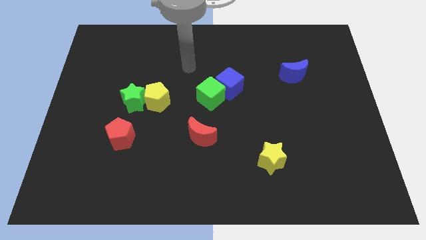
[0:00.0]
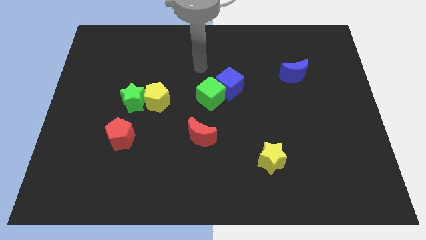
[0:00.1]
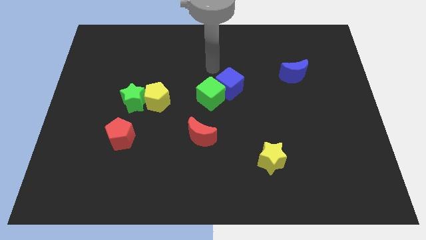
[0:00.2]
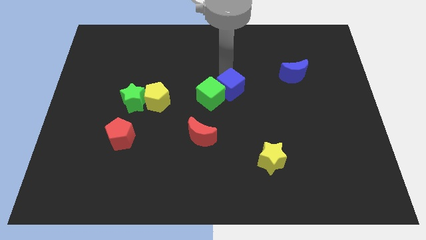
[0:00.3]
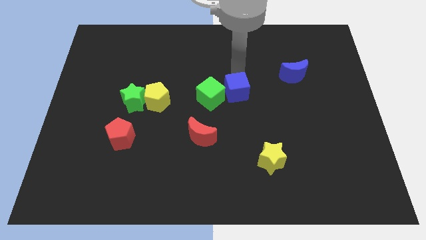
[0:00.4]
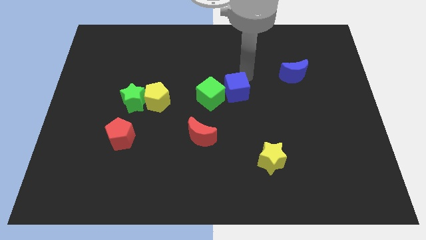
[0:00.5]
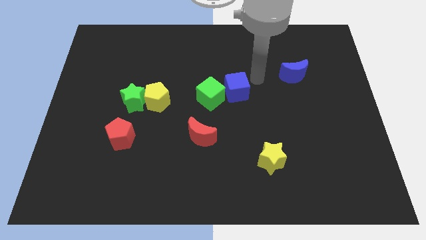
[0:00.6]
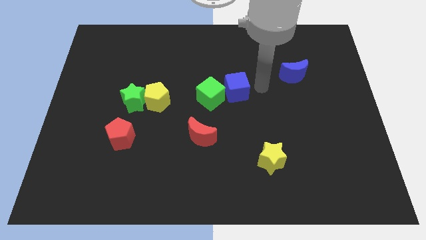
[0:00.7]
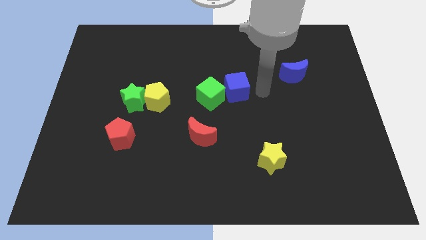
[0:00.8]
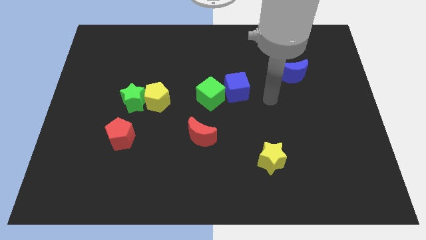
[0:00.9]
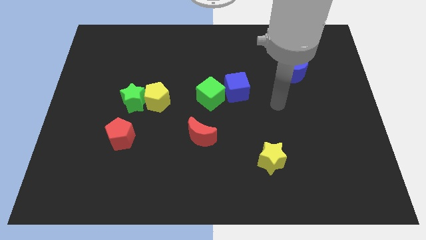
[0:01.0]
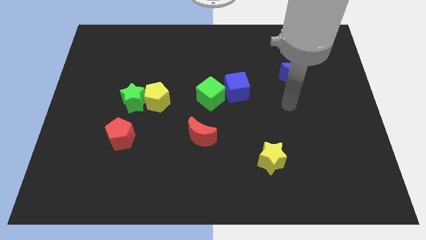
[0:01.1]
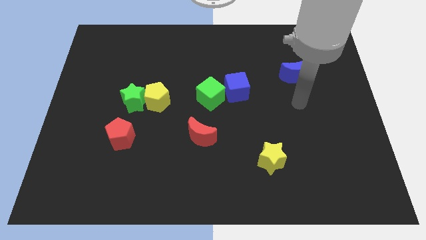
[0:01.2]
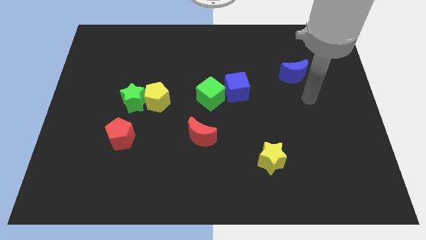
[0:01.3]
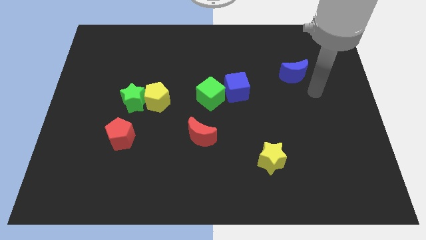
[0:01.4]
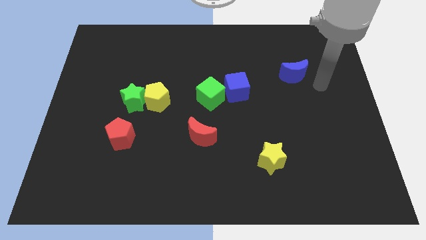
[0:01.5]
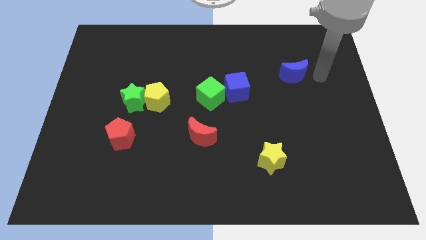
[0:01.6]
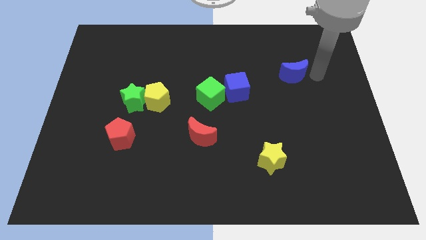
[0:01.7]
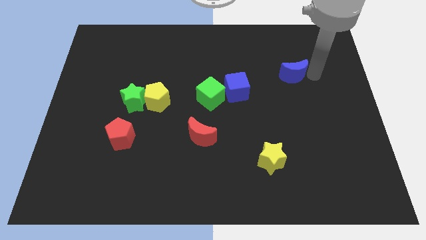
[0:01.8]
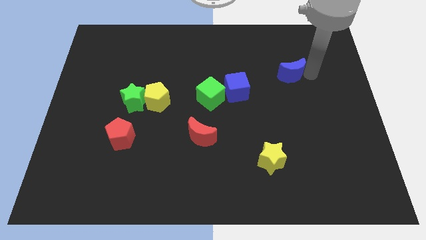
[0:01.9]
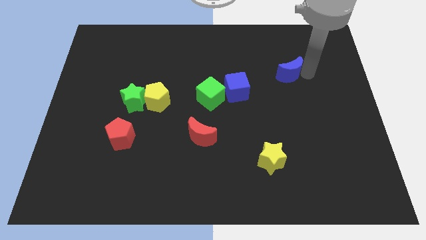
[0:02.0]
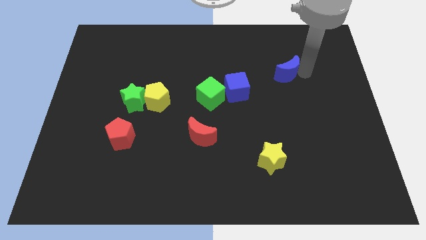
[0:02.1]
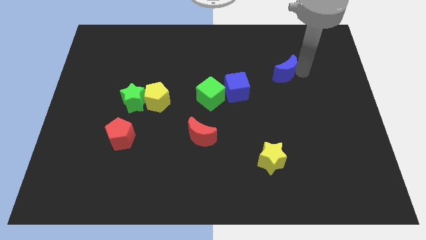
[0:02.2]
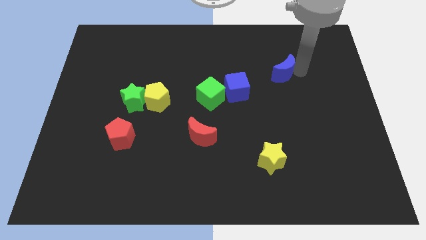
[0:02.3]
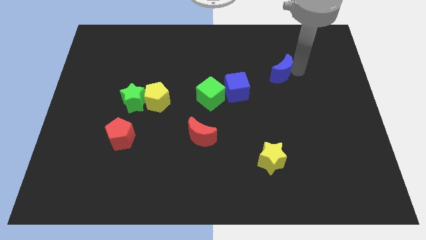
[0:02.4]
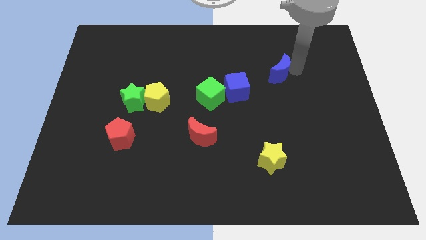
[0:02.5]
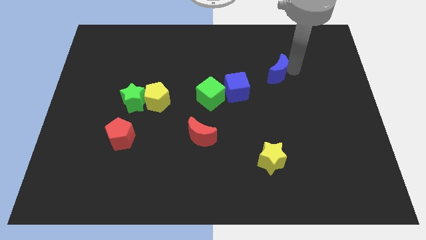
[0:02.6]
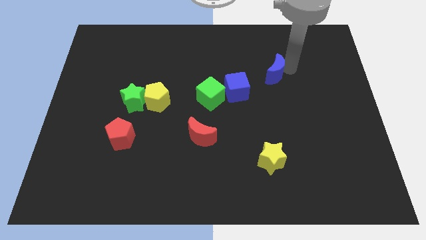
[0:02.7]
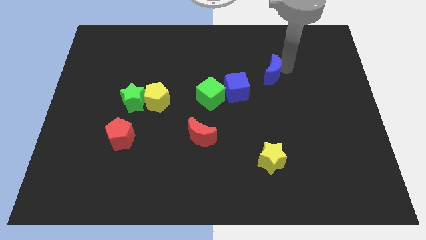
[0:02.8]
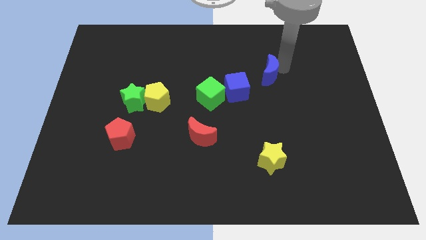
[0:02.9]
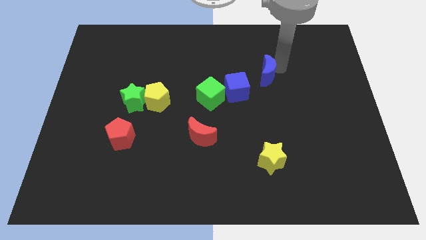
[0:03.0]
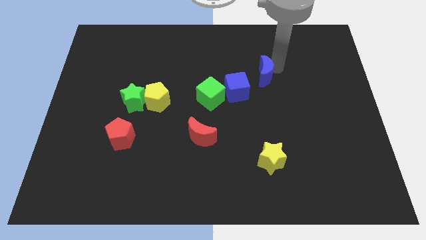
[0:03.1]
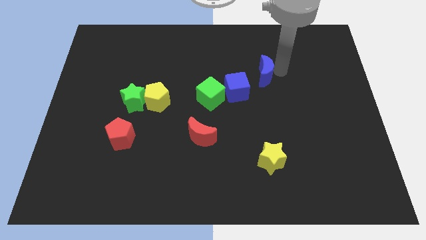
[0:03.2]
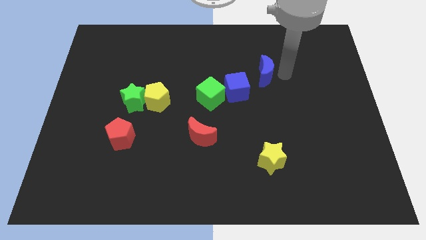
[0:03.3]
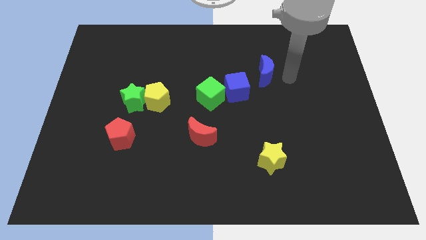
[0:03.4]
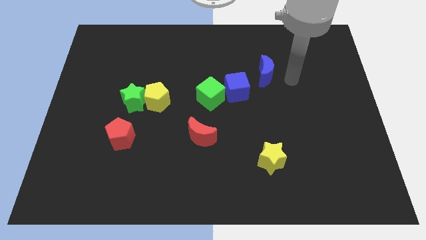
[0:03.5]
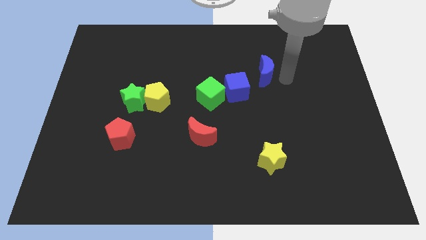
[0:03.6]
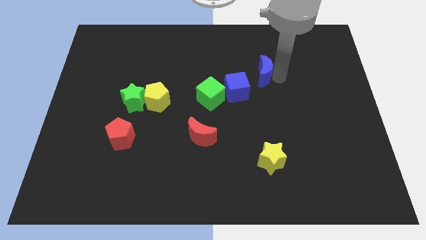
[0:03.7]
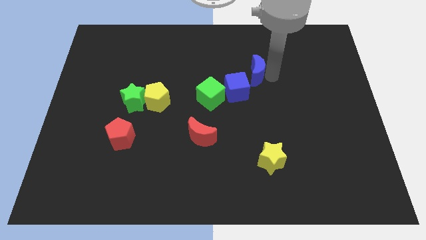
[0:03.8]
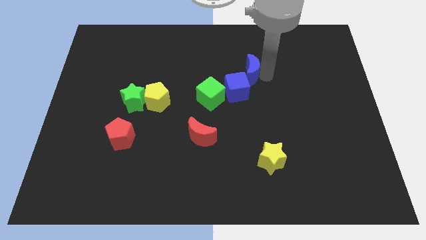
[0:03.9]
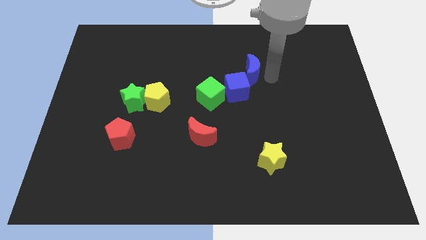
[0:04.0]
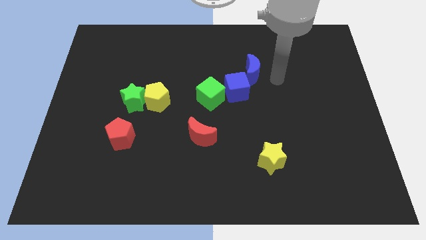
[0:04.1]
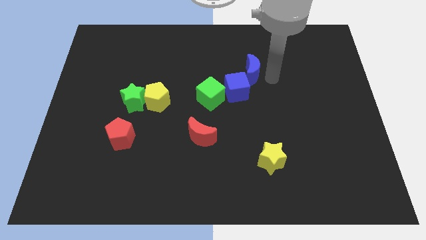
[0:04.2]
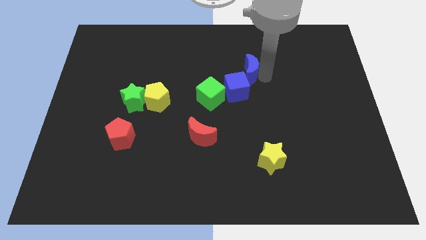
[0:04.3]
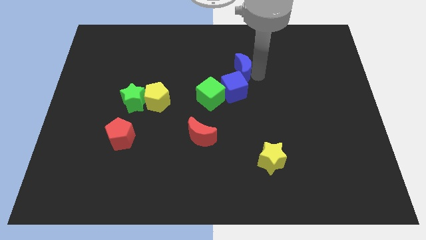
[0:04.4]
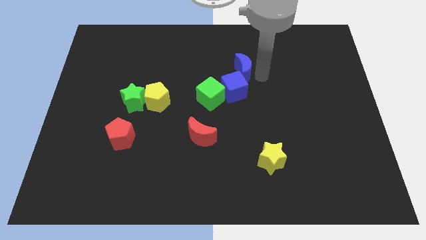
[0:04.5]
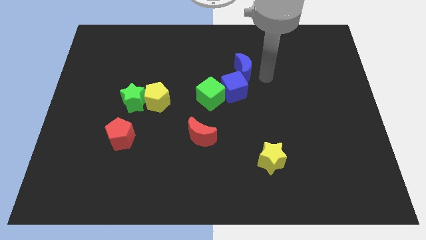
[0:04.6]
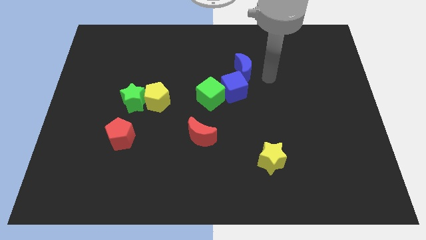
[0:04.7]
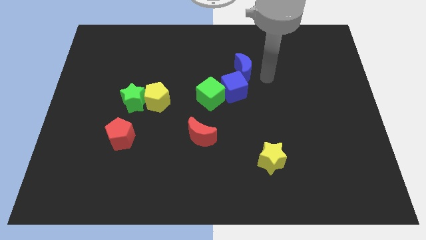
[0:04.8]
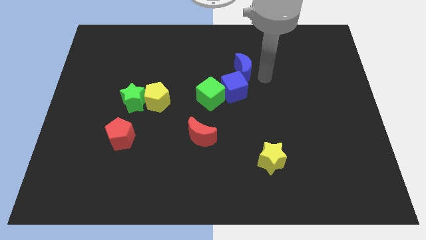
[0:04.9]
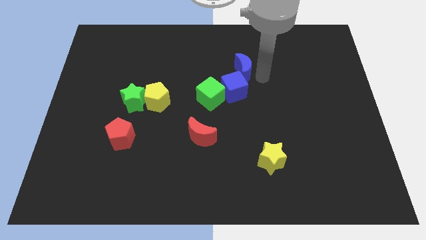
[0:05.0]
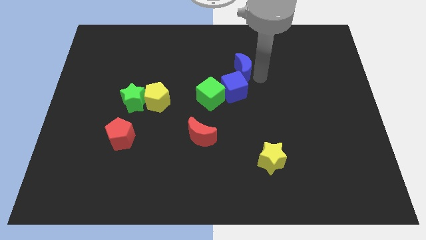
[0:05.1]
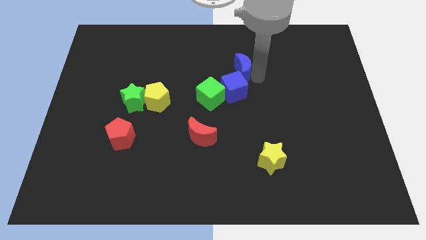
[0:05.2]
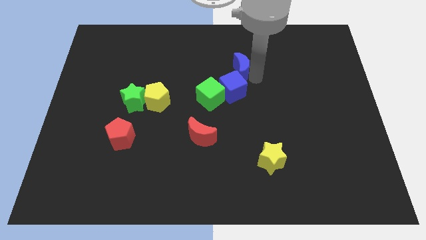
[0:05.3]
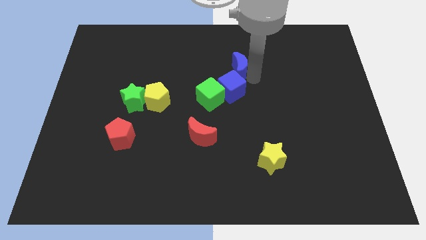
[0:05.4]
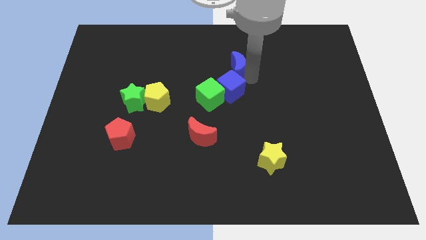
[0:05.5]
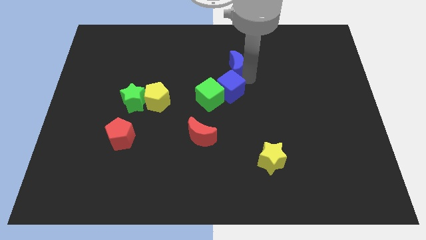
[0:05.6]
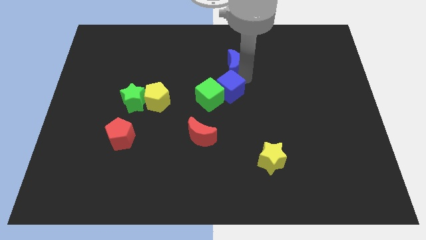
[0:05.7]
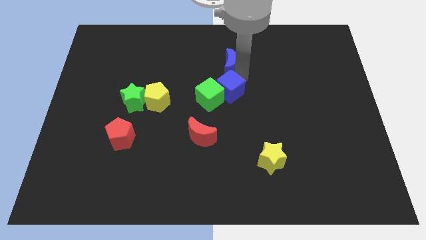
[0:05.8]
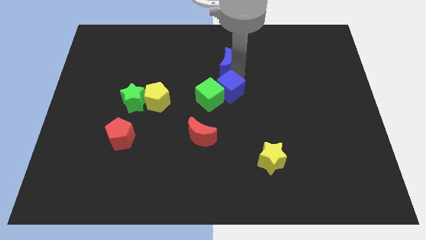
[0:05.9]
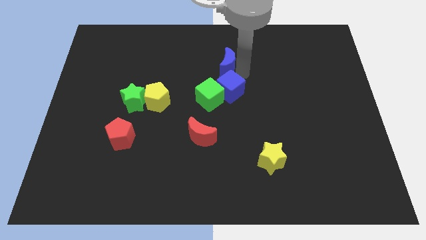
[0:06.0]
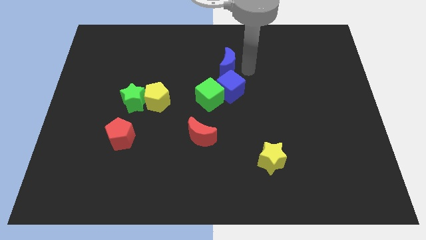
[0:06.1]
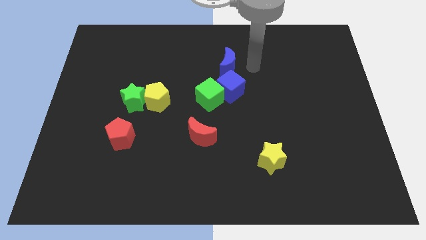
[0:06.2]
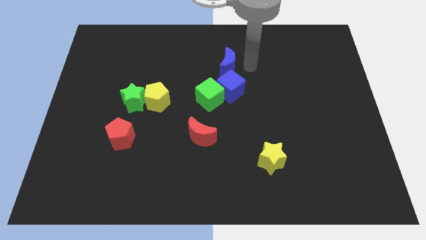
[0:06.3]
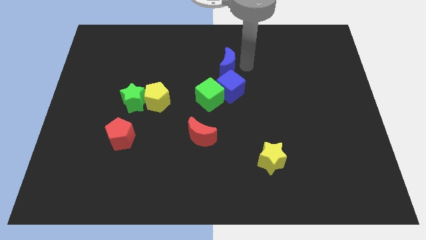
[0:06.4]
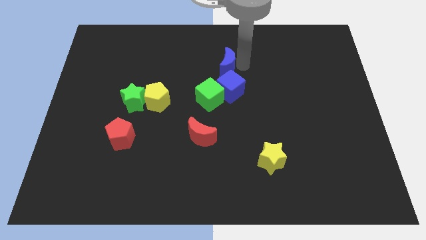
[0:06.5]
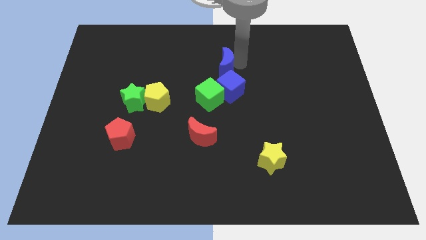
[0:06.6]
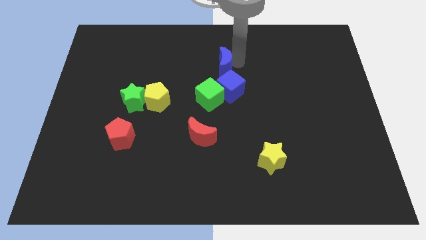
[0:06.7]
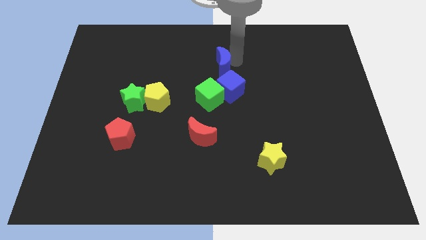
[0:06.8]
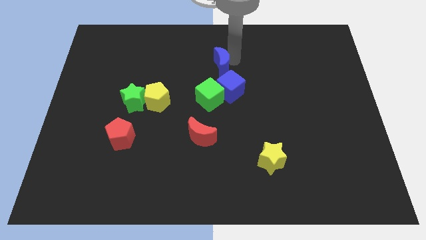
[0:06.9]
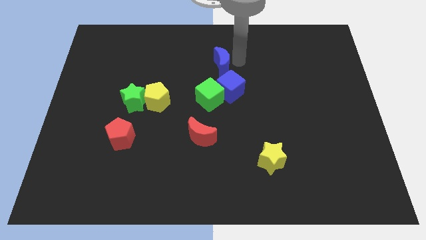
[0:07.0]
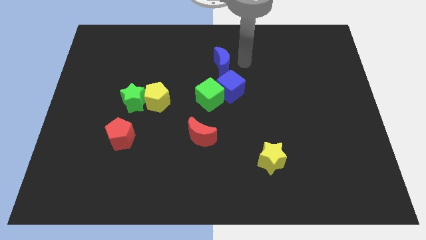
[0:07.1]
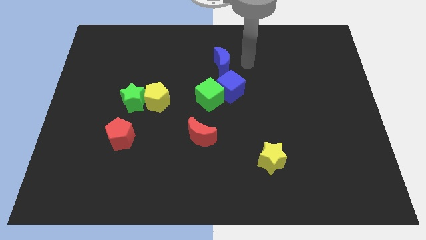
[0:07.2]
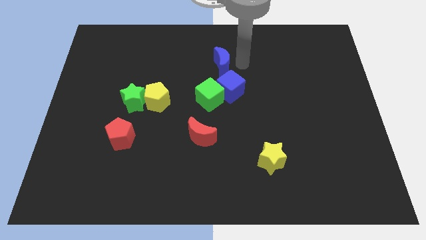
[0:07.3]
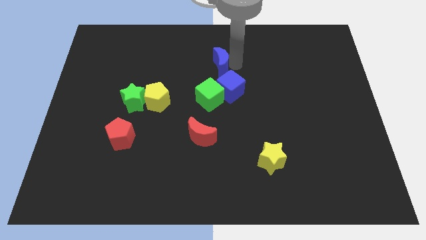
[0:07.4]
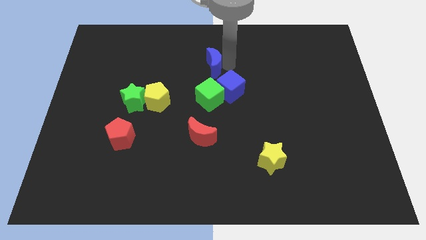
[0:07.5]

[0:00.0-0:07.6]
slide the blue moon left

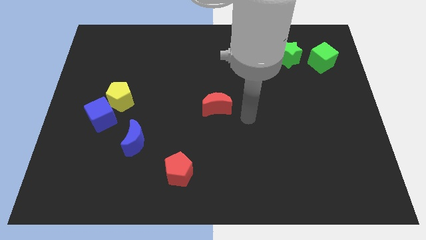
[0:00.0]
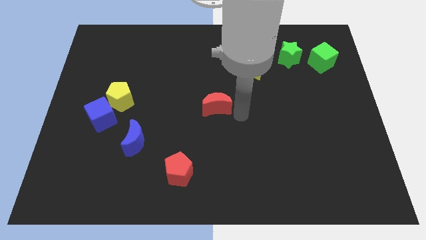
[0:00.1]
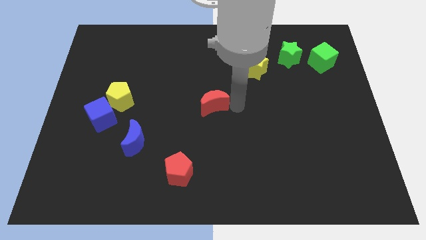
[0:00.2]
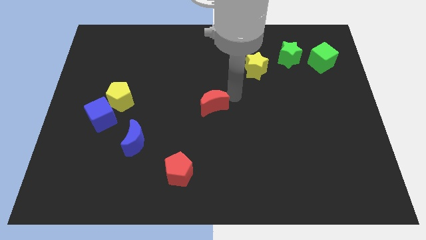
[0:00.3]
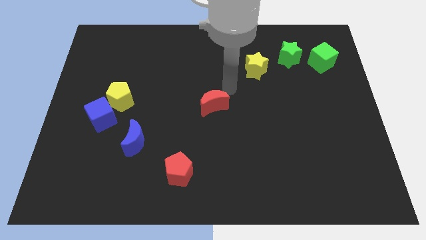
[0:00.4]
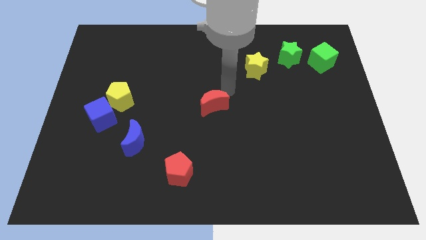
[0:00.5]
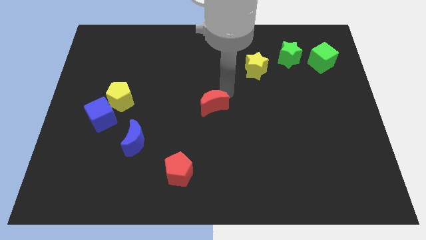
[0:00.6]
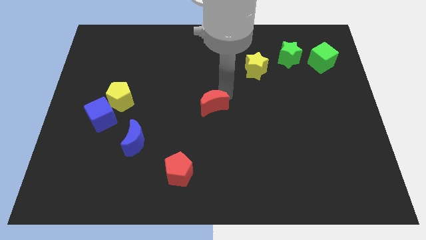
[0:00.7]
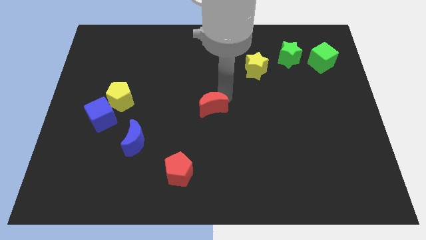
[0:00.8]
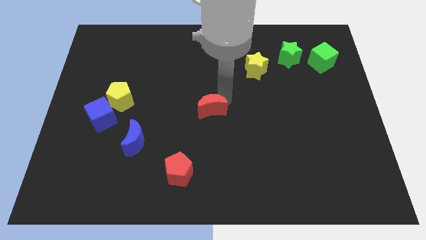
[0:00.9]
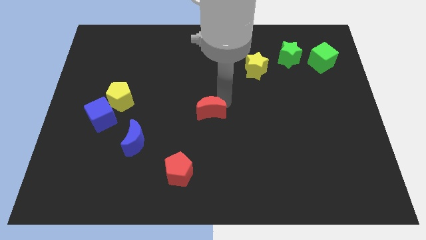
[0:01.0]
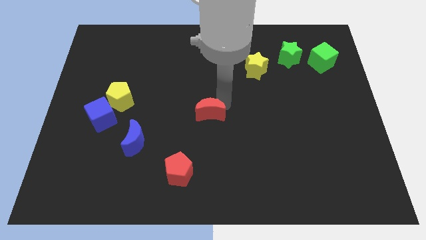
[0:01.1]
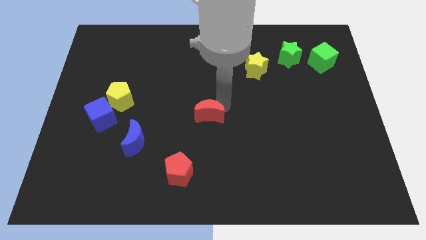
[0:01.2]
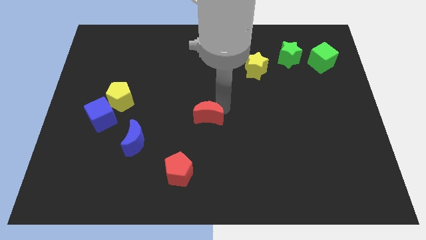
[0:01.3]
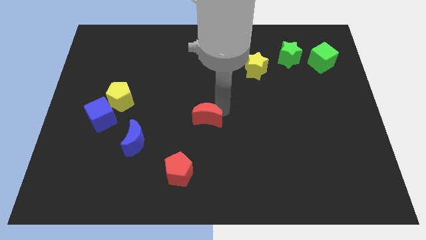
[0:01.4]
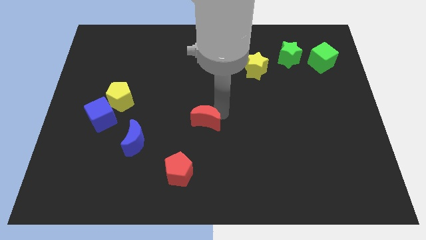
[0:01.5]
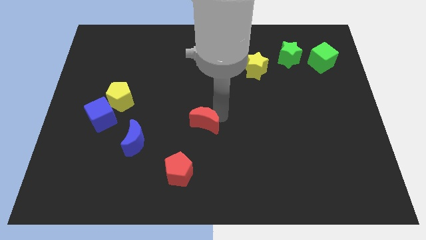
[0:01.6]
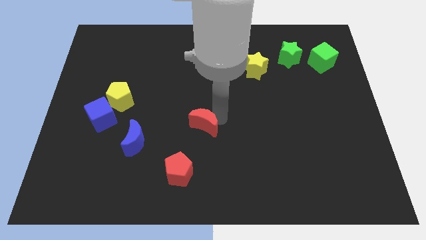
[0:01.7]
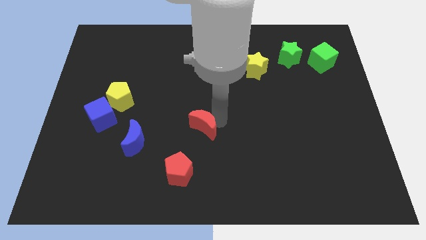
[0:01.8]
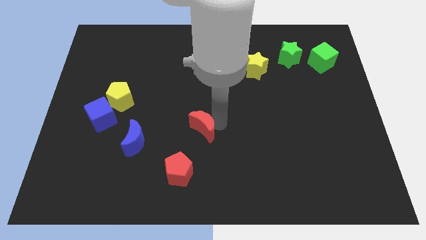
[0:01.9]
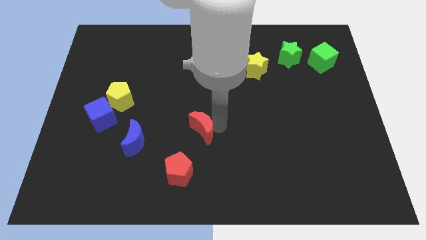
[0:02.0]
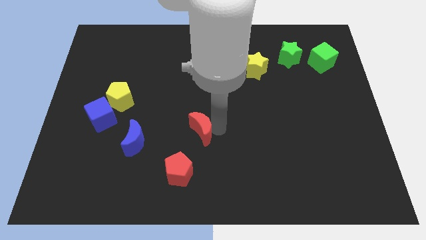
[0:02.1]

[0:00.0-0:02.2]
move the red moon down and left diagonally a little
